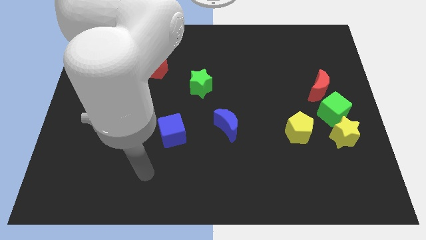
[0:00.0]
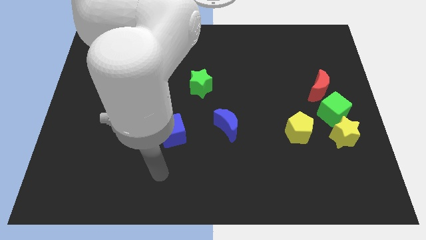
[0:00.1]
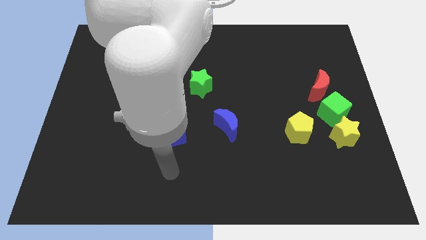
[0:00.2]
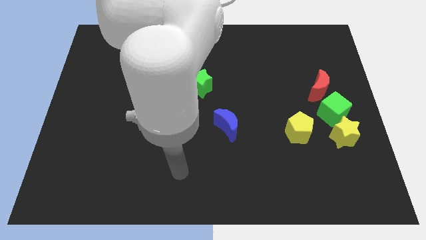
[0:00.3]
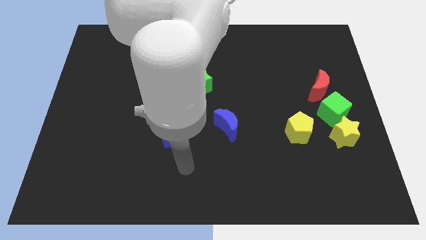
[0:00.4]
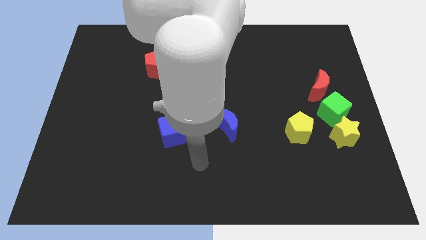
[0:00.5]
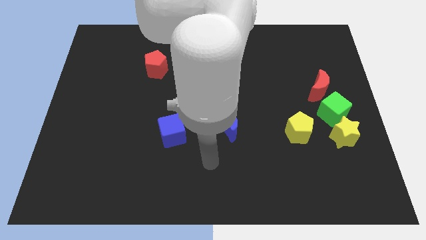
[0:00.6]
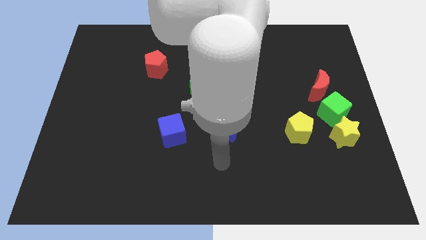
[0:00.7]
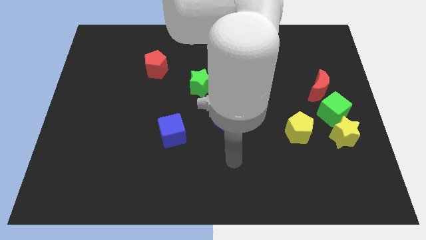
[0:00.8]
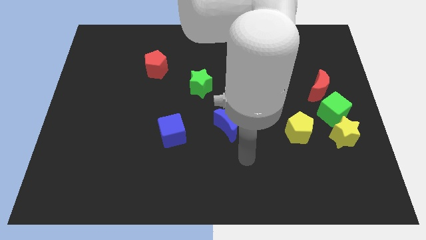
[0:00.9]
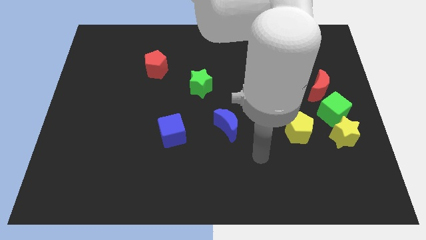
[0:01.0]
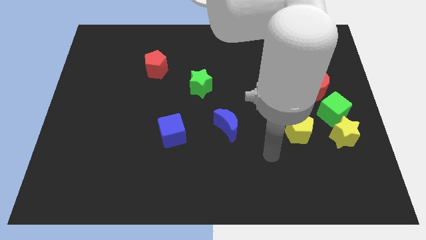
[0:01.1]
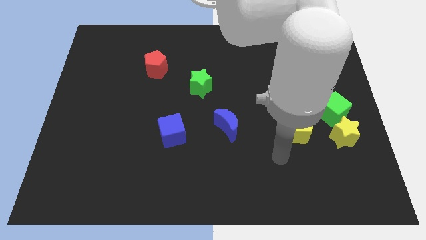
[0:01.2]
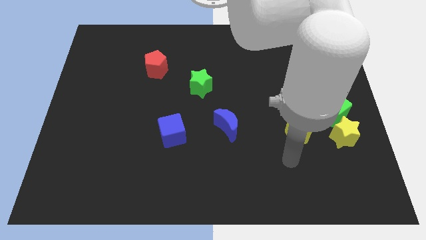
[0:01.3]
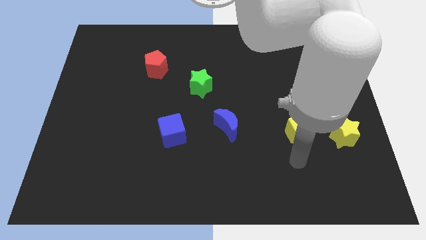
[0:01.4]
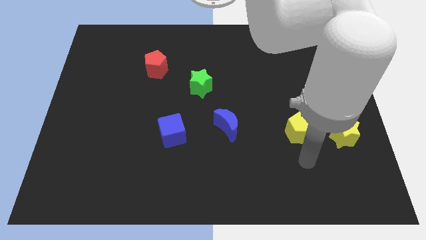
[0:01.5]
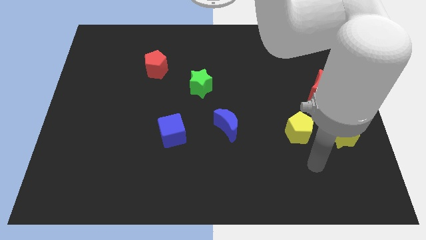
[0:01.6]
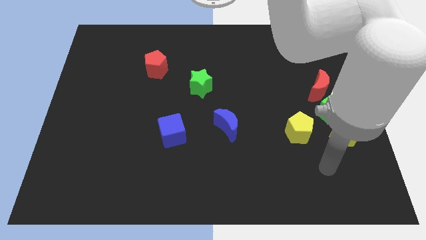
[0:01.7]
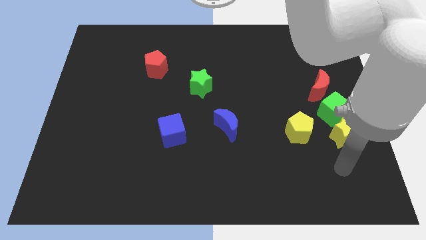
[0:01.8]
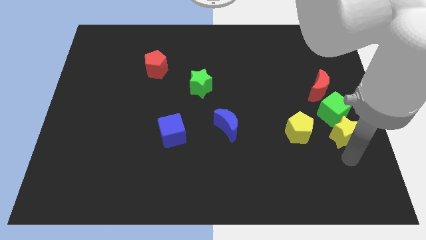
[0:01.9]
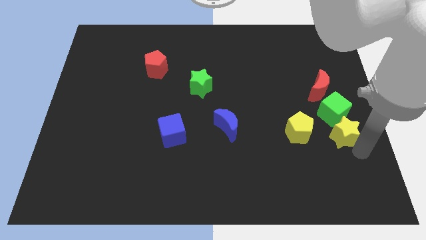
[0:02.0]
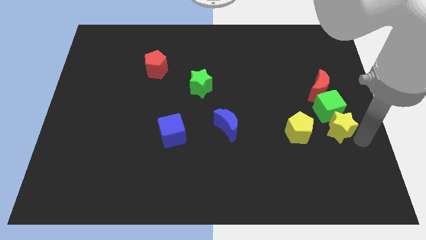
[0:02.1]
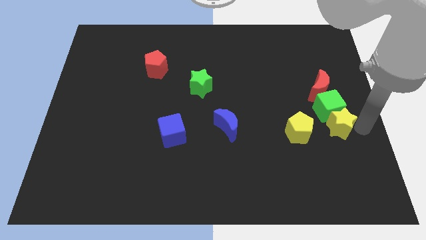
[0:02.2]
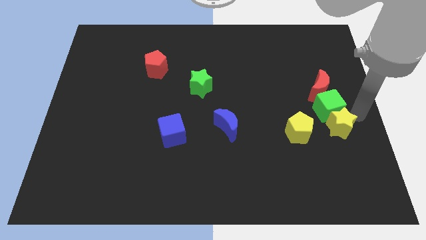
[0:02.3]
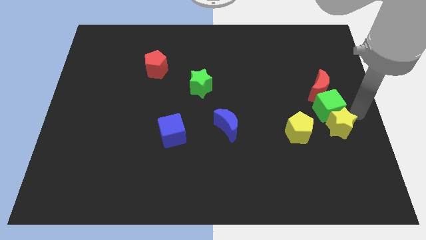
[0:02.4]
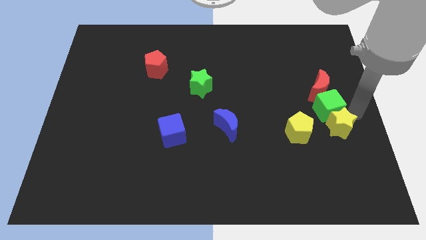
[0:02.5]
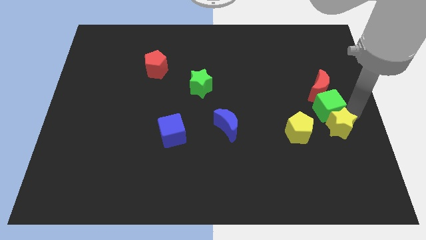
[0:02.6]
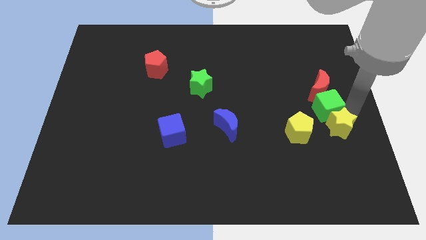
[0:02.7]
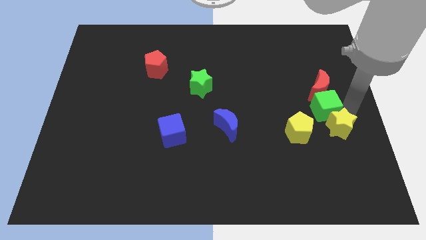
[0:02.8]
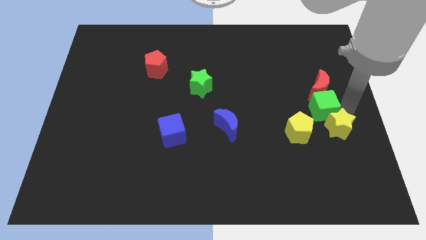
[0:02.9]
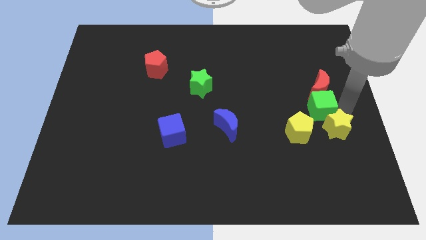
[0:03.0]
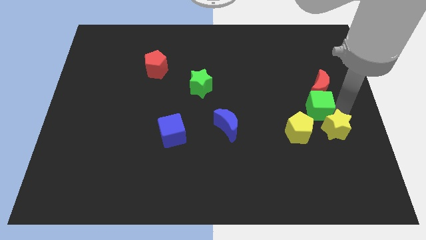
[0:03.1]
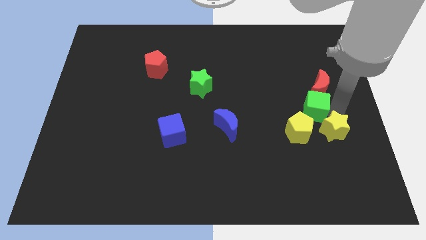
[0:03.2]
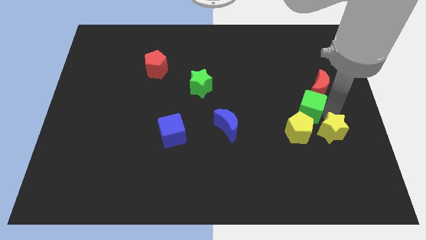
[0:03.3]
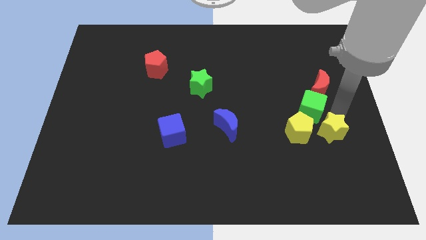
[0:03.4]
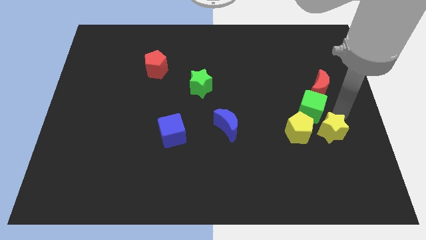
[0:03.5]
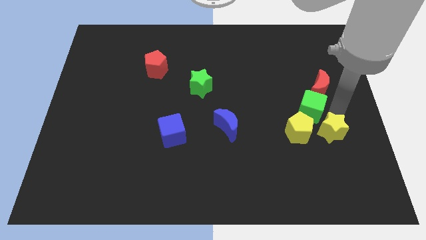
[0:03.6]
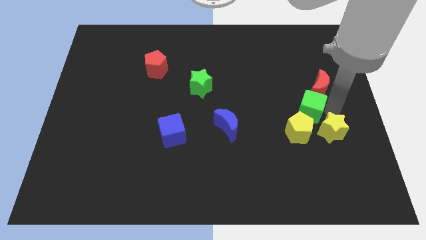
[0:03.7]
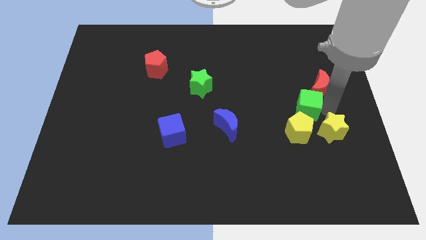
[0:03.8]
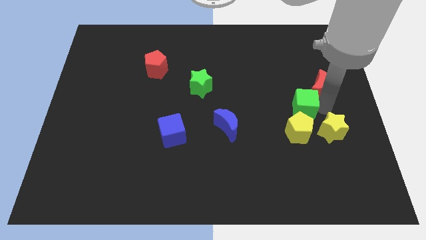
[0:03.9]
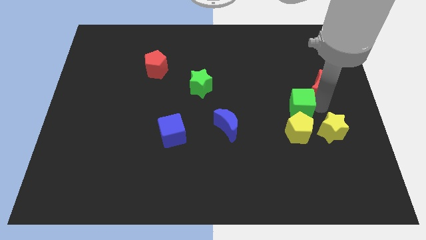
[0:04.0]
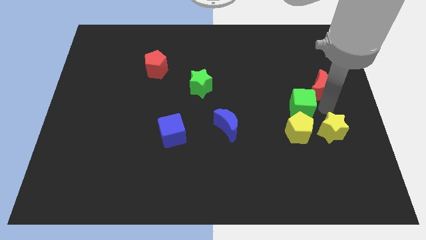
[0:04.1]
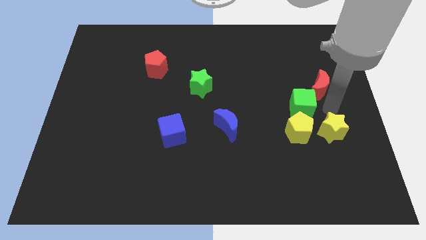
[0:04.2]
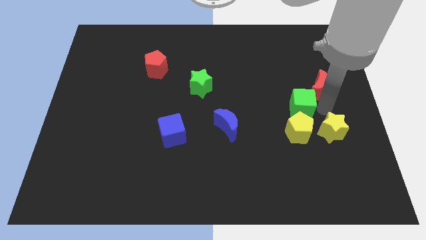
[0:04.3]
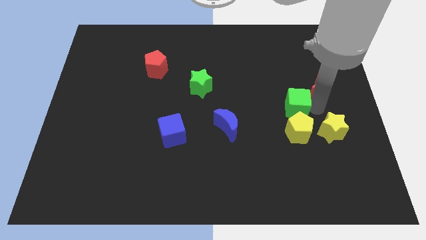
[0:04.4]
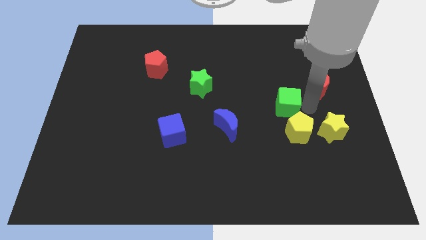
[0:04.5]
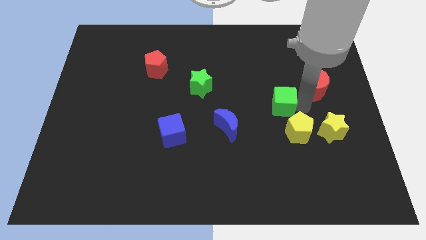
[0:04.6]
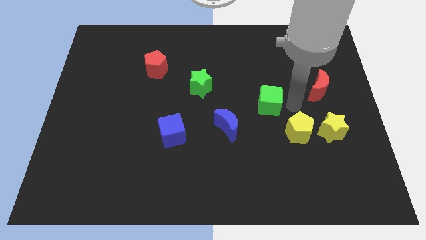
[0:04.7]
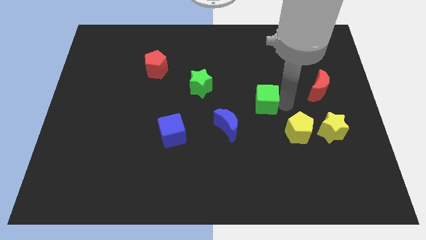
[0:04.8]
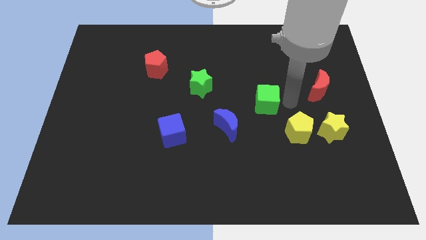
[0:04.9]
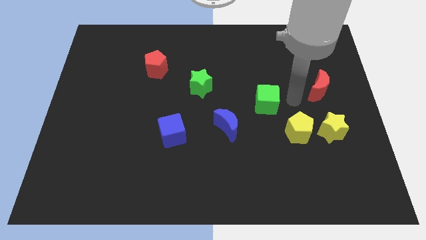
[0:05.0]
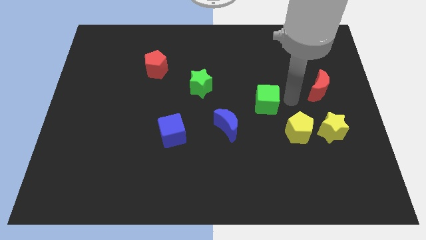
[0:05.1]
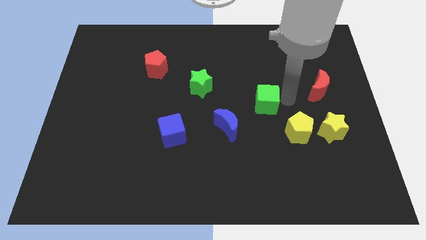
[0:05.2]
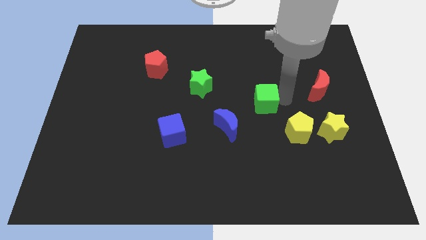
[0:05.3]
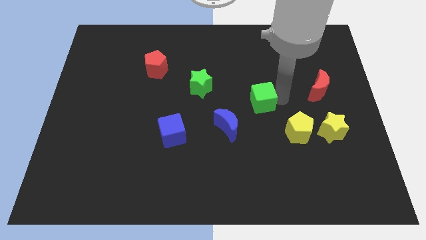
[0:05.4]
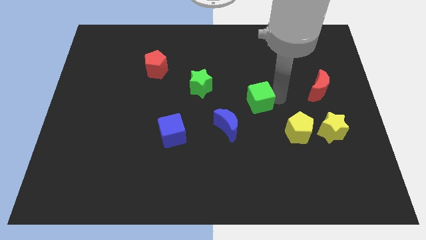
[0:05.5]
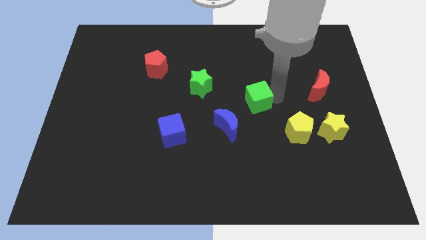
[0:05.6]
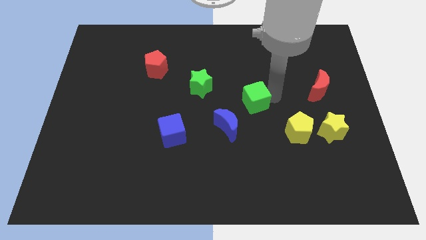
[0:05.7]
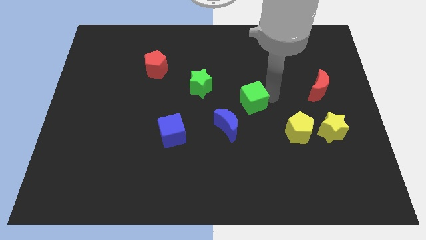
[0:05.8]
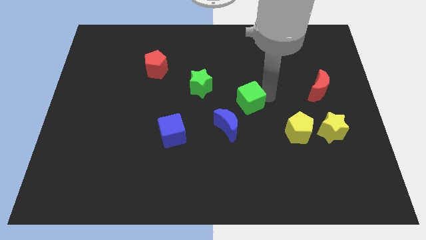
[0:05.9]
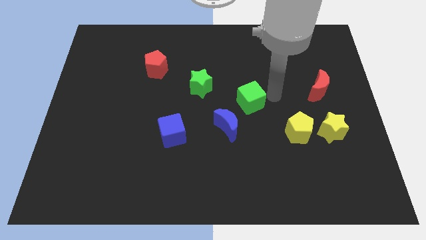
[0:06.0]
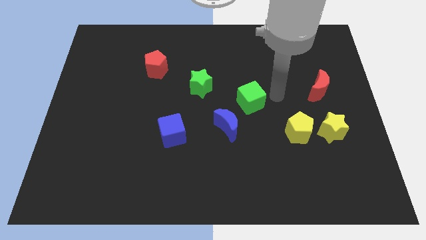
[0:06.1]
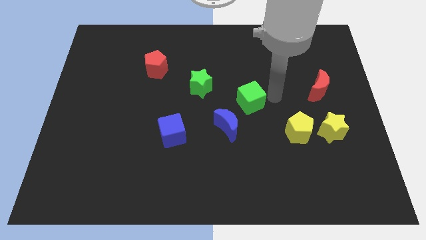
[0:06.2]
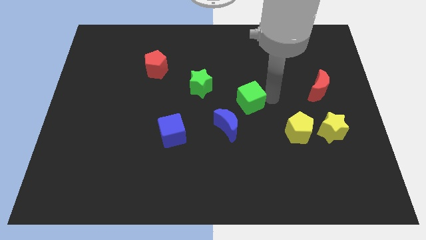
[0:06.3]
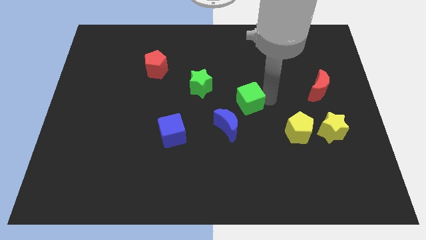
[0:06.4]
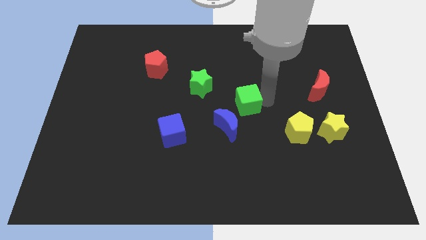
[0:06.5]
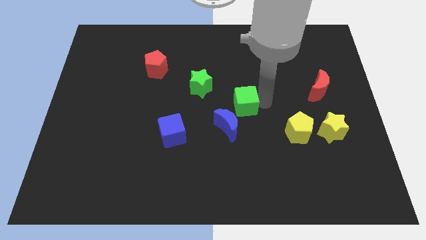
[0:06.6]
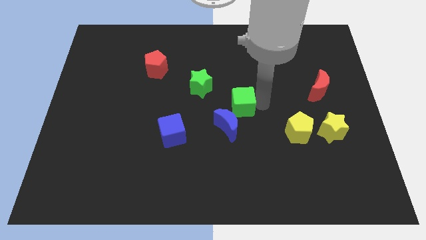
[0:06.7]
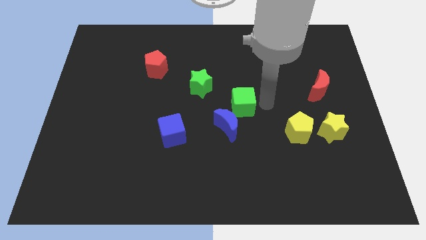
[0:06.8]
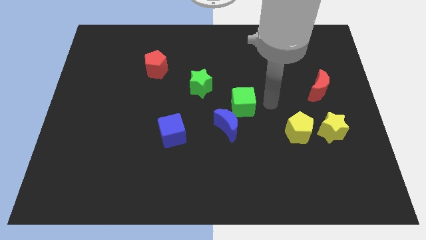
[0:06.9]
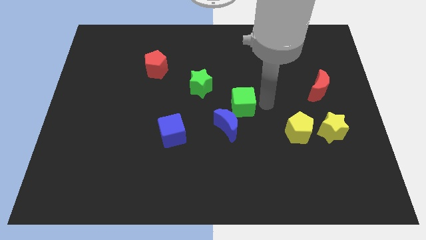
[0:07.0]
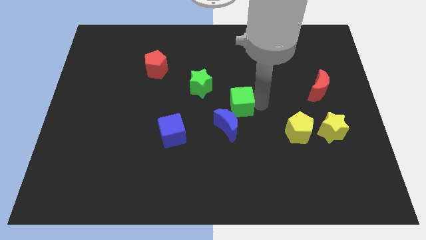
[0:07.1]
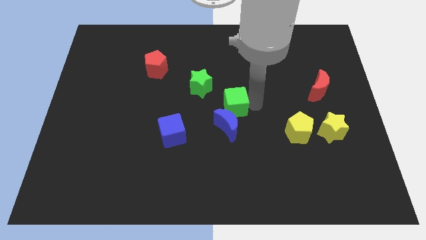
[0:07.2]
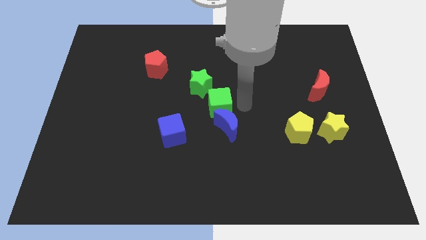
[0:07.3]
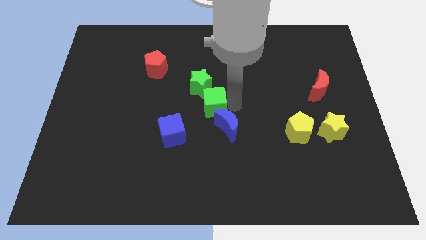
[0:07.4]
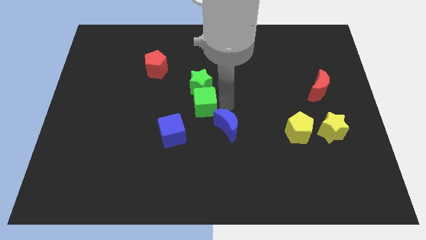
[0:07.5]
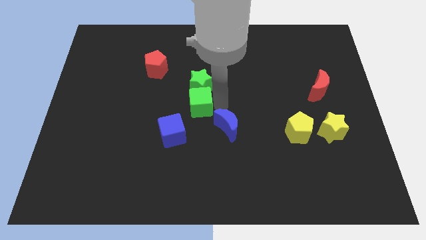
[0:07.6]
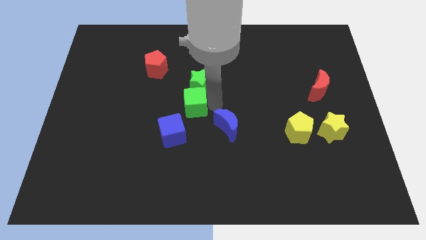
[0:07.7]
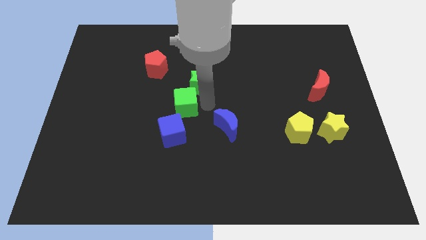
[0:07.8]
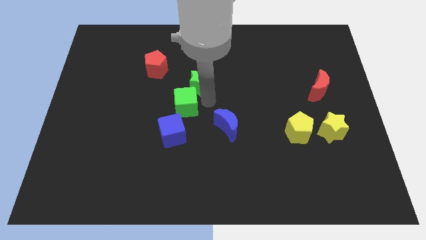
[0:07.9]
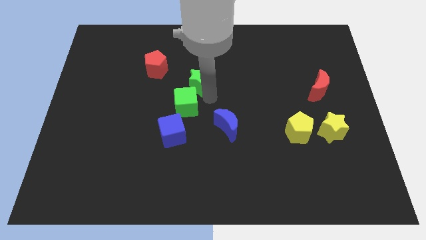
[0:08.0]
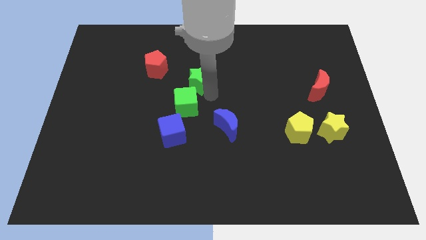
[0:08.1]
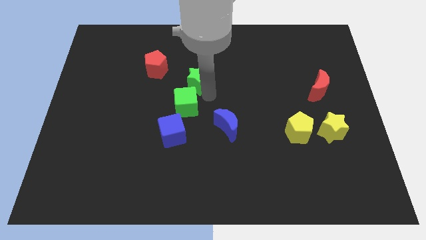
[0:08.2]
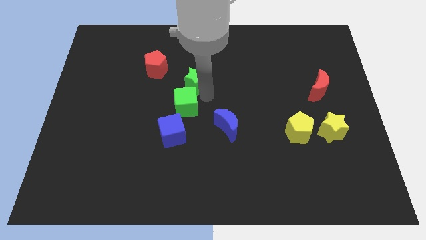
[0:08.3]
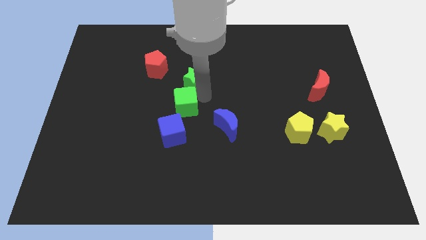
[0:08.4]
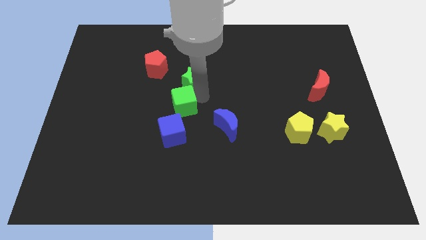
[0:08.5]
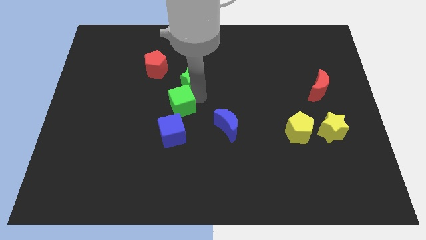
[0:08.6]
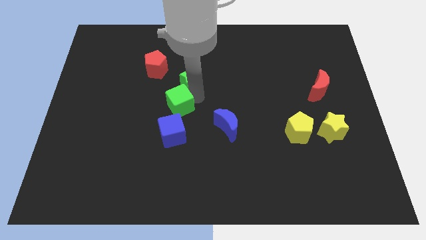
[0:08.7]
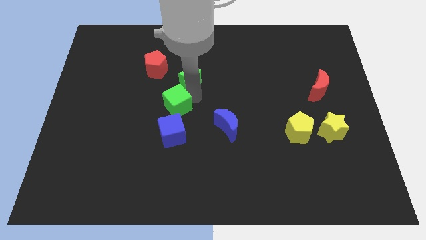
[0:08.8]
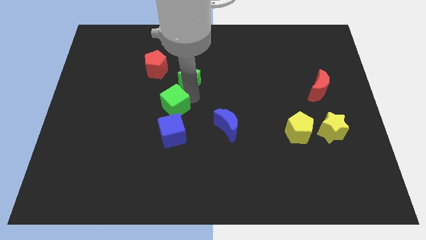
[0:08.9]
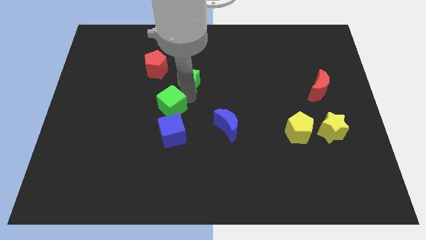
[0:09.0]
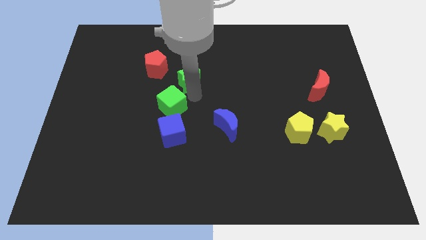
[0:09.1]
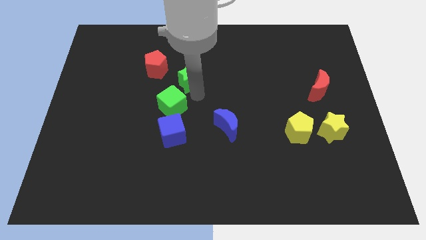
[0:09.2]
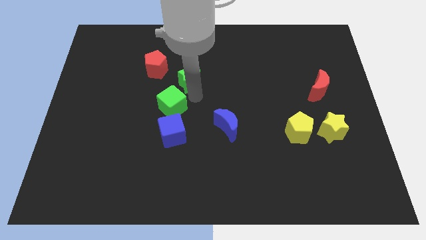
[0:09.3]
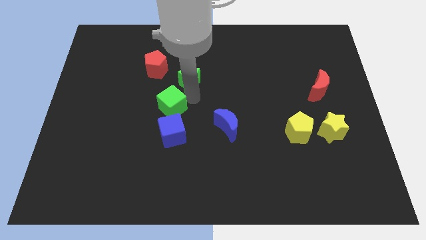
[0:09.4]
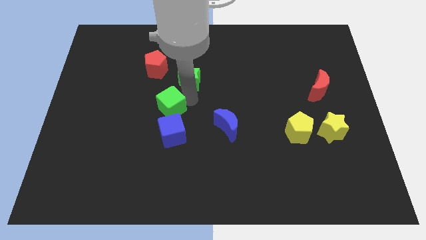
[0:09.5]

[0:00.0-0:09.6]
put the green cube to the top left of the blue cube
